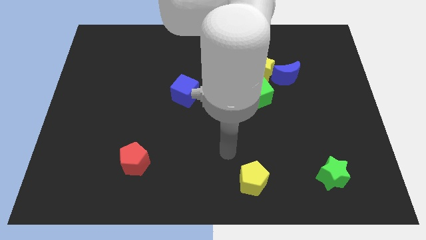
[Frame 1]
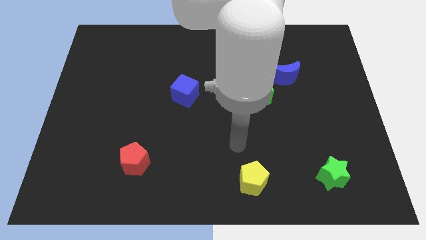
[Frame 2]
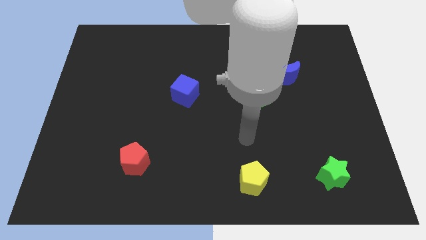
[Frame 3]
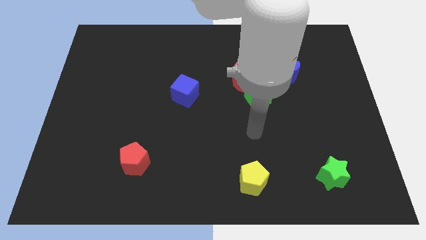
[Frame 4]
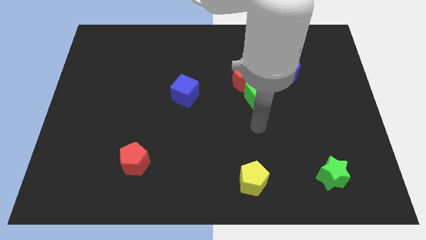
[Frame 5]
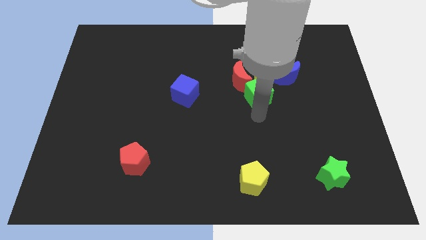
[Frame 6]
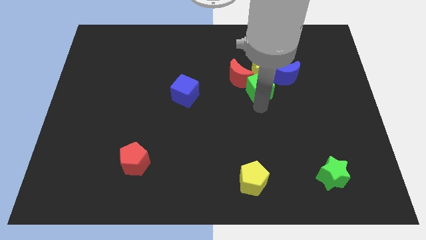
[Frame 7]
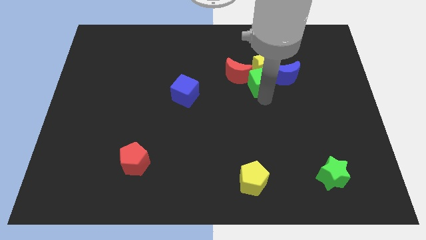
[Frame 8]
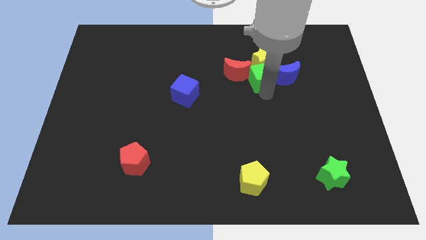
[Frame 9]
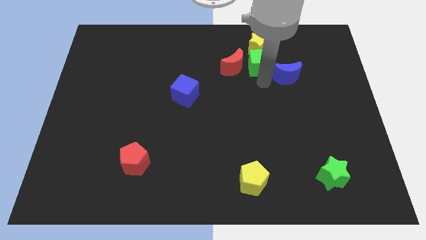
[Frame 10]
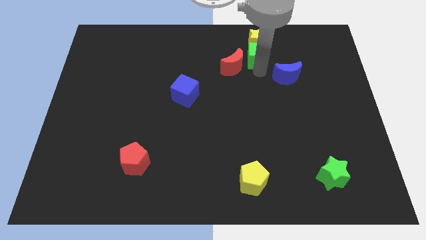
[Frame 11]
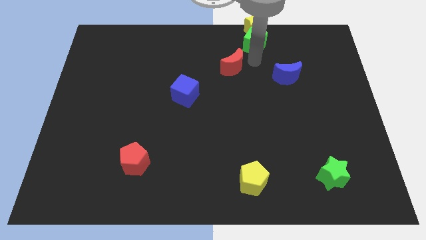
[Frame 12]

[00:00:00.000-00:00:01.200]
move the red moon away from the yellow star and green cube

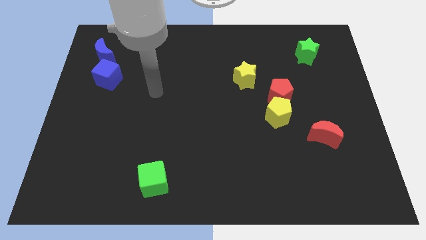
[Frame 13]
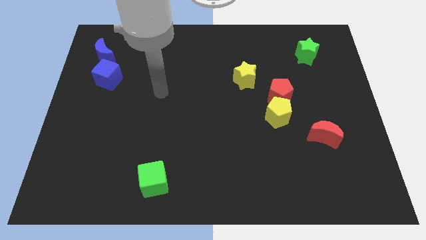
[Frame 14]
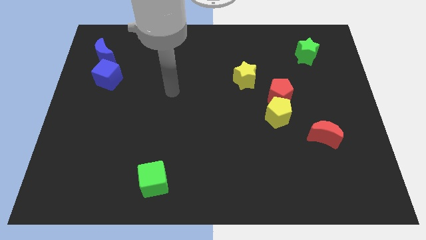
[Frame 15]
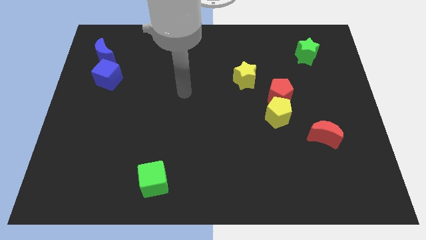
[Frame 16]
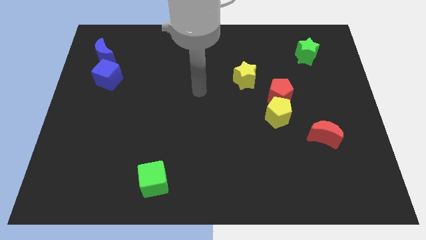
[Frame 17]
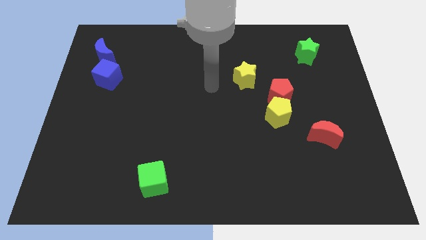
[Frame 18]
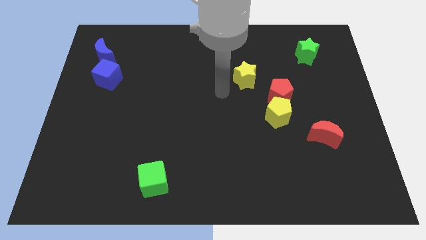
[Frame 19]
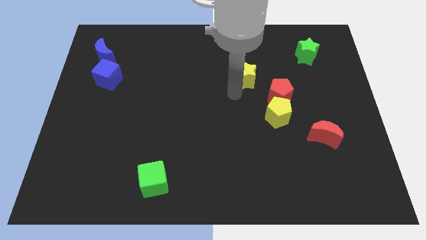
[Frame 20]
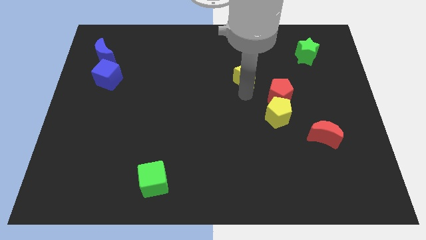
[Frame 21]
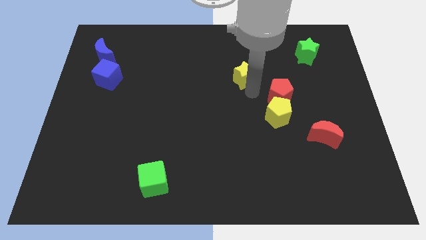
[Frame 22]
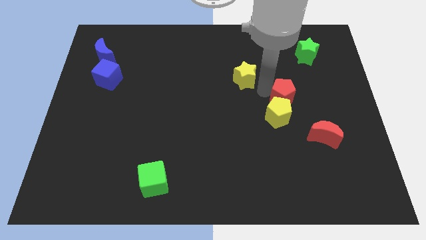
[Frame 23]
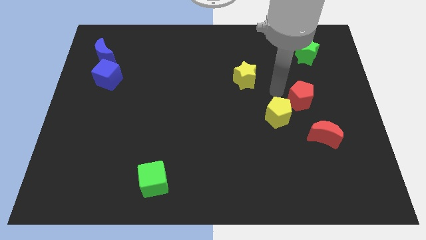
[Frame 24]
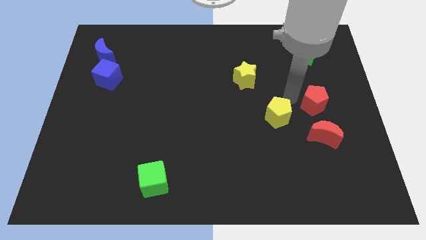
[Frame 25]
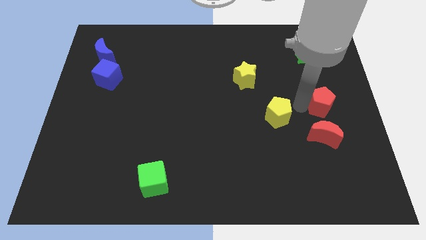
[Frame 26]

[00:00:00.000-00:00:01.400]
move the yellow pentagon away from the red pentagon

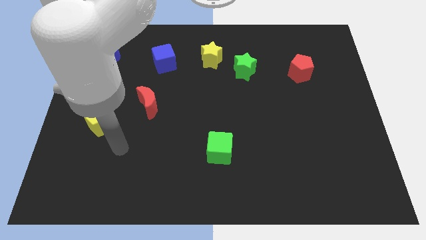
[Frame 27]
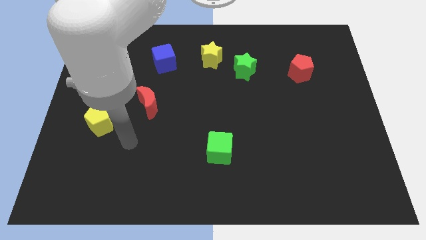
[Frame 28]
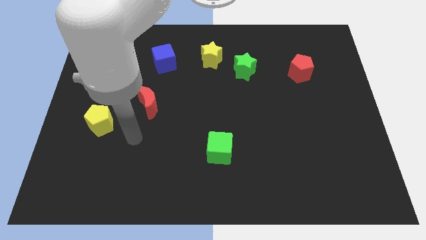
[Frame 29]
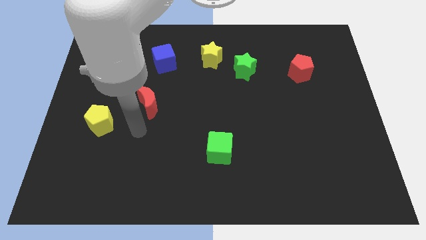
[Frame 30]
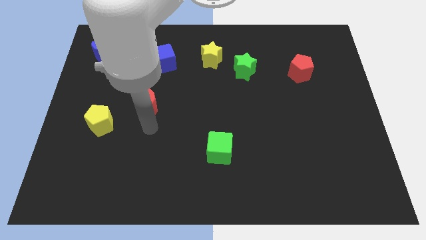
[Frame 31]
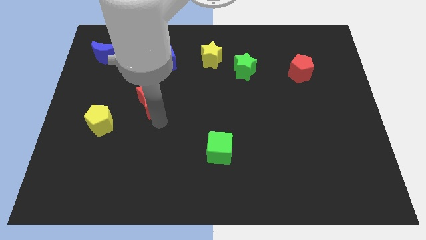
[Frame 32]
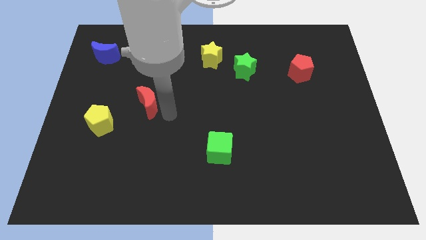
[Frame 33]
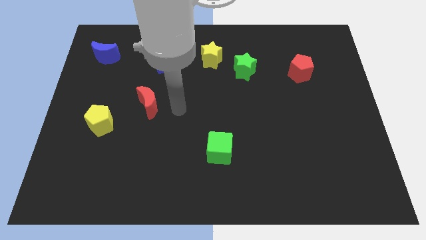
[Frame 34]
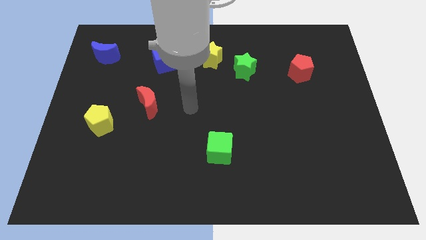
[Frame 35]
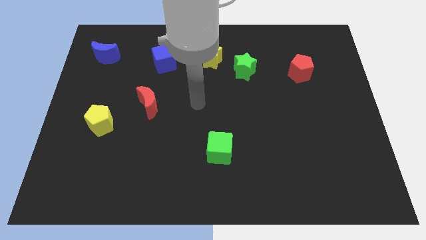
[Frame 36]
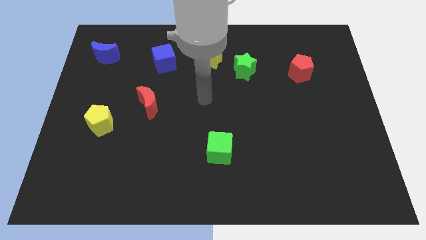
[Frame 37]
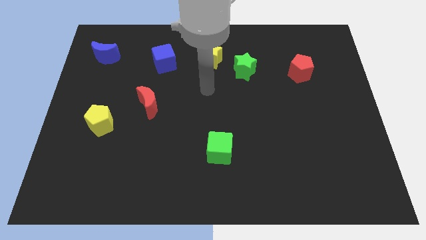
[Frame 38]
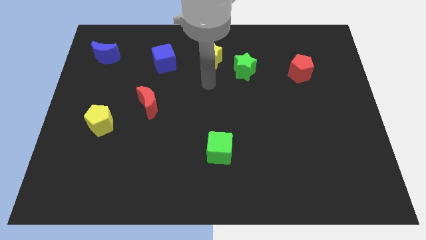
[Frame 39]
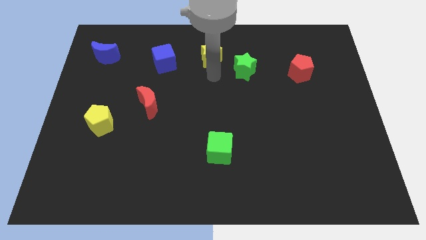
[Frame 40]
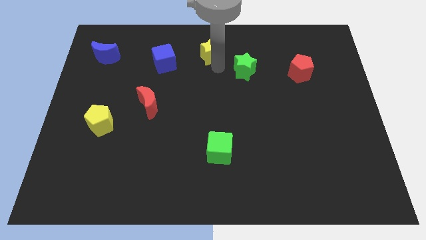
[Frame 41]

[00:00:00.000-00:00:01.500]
move the green star away from the yellow star

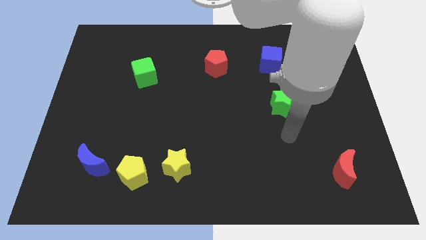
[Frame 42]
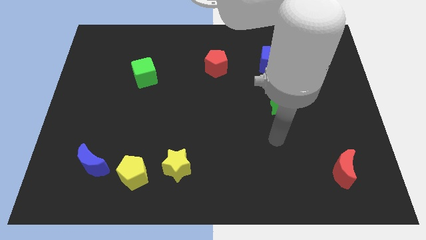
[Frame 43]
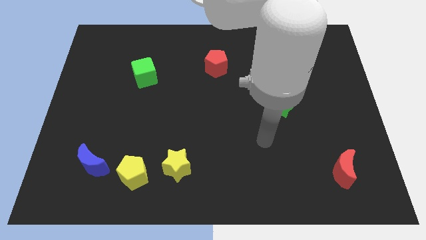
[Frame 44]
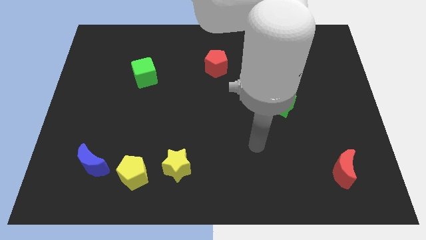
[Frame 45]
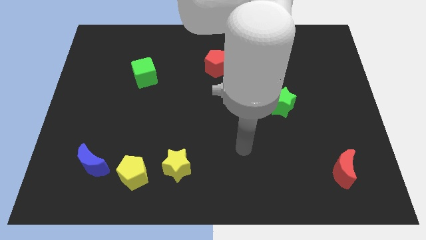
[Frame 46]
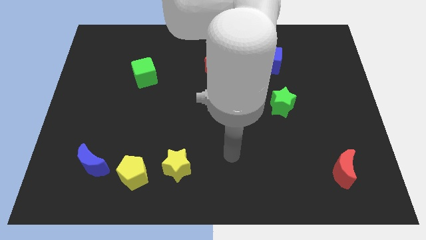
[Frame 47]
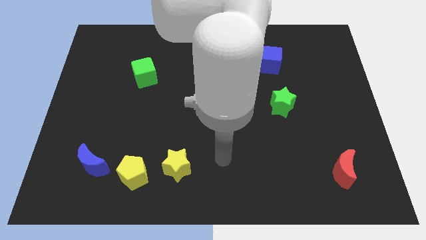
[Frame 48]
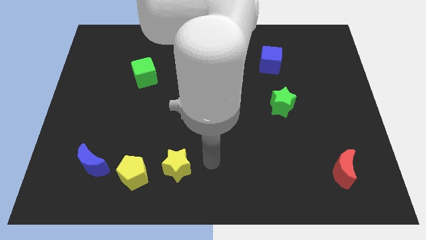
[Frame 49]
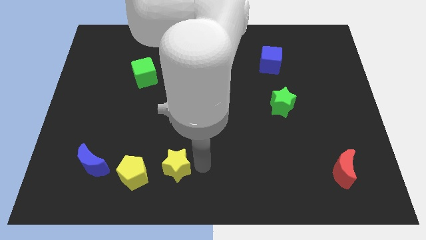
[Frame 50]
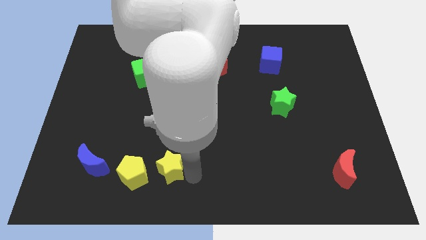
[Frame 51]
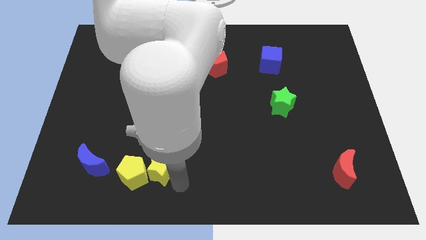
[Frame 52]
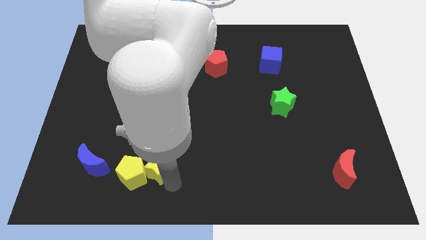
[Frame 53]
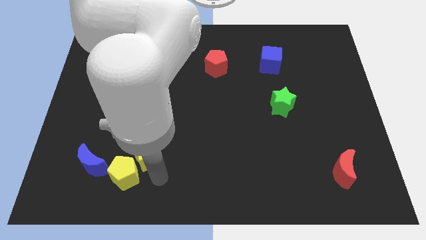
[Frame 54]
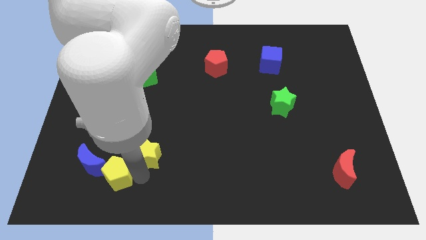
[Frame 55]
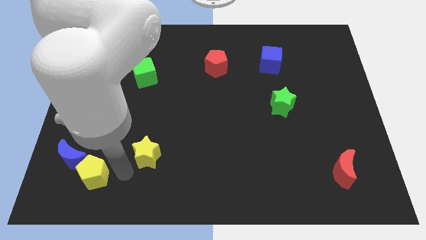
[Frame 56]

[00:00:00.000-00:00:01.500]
move the yellow star away from the yellow pentagon

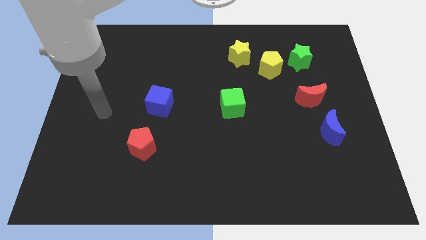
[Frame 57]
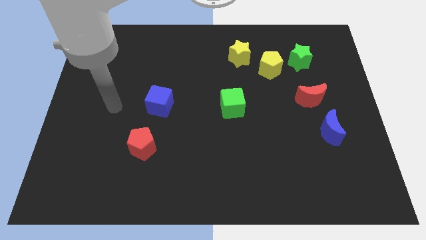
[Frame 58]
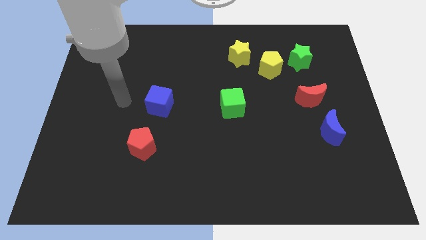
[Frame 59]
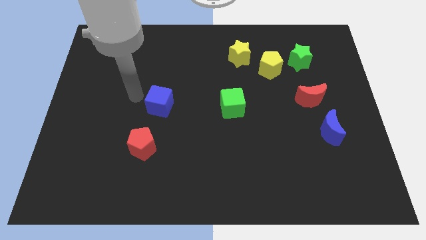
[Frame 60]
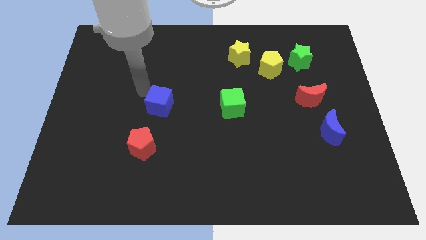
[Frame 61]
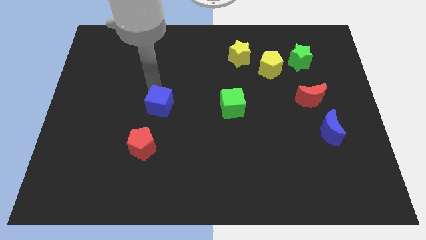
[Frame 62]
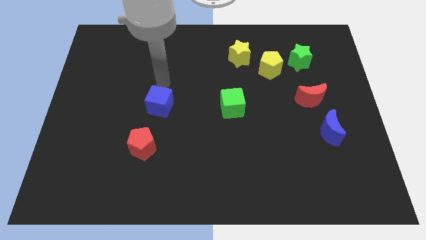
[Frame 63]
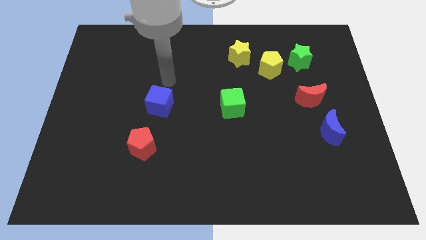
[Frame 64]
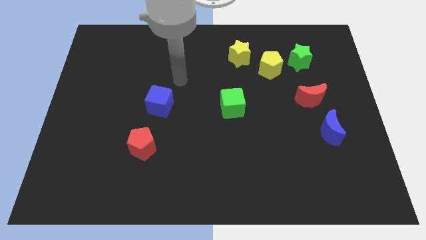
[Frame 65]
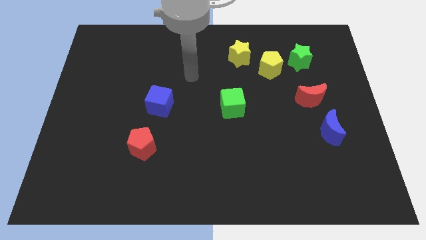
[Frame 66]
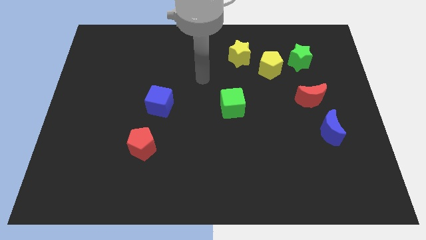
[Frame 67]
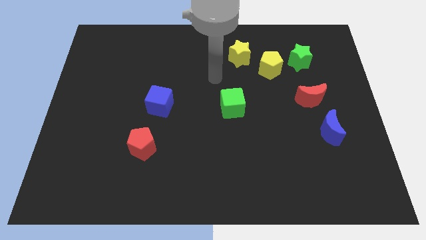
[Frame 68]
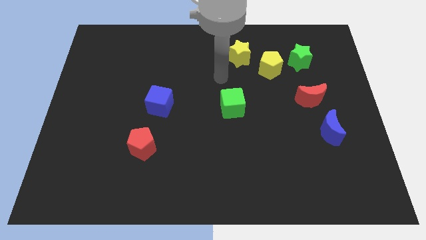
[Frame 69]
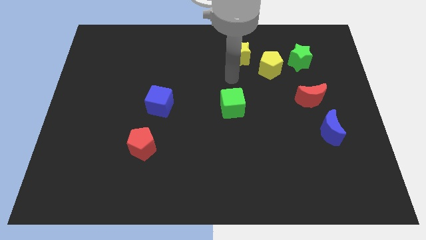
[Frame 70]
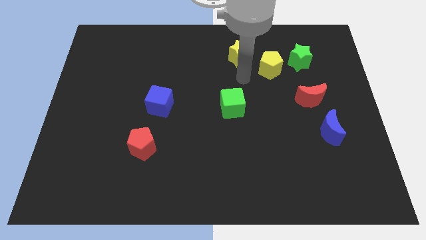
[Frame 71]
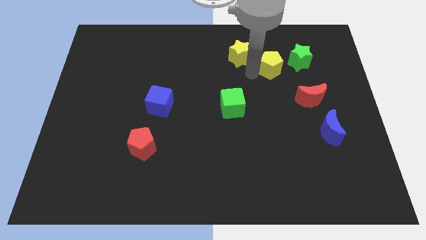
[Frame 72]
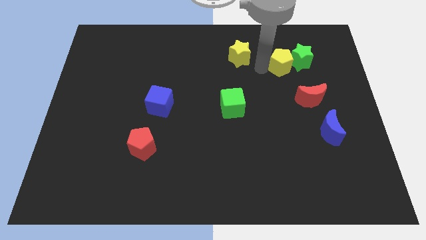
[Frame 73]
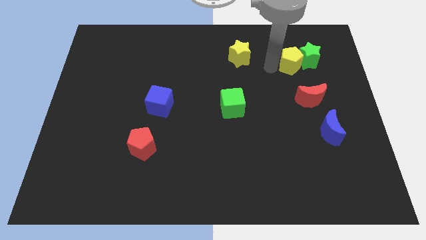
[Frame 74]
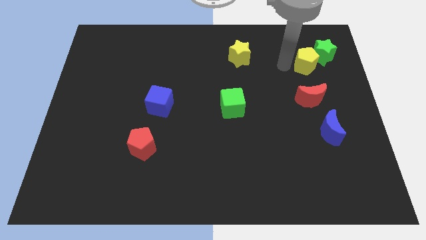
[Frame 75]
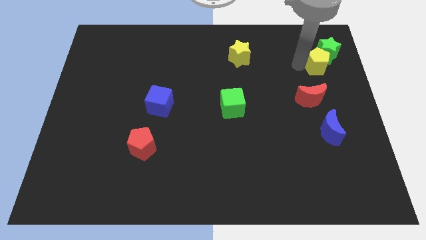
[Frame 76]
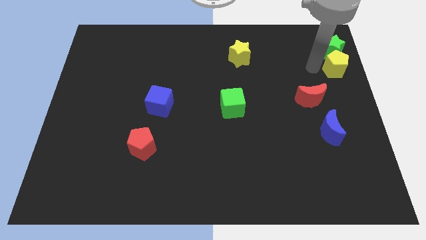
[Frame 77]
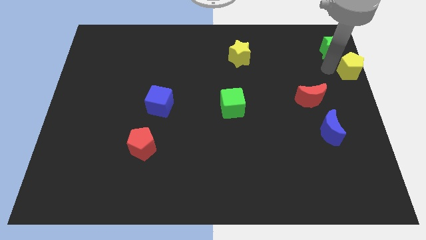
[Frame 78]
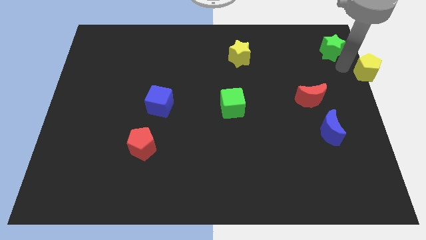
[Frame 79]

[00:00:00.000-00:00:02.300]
move the green star away from the yellow pentagon

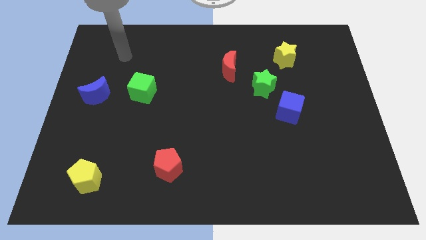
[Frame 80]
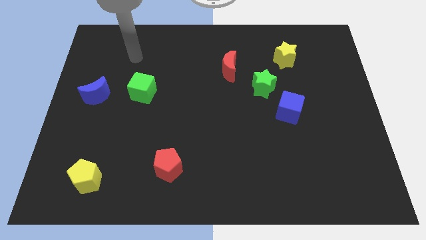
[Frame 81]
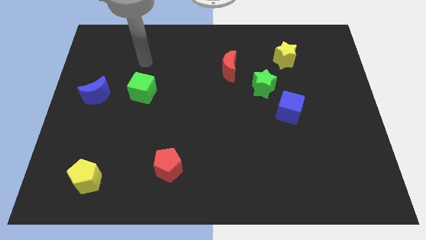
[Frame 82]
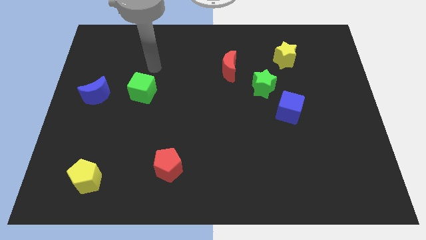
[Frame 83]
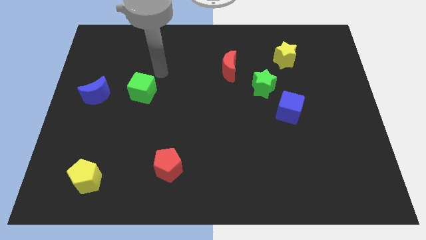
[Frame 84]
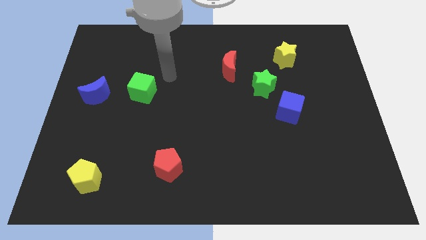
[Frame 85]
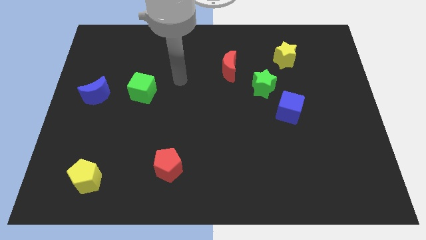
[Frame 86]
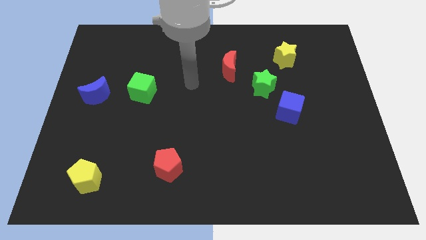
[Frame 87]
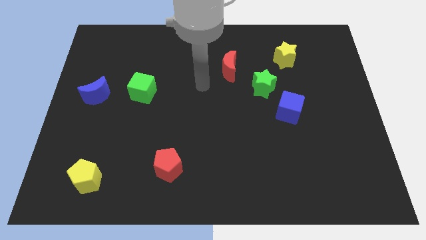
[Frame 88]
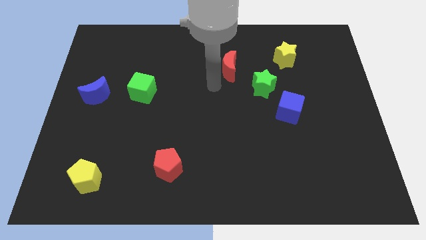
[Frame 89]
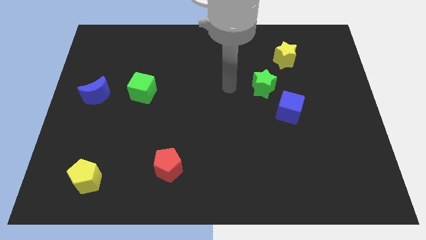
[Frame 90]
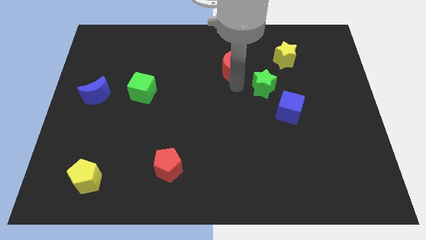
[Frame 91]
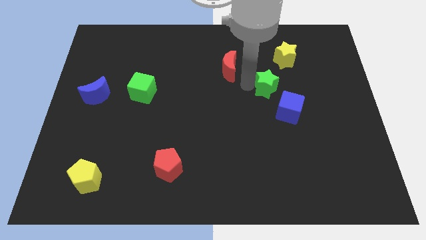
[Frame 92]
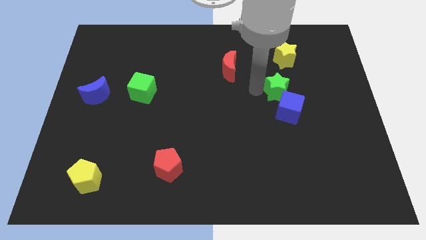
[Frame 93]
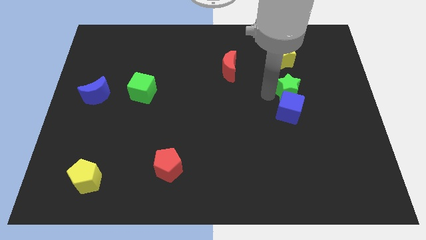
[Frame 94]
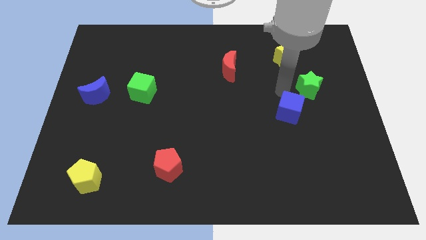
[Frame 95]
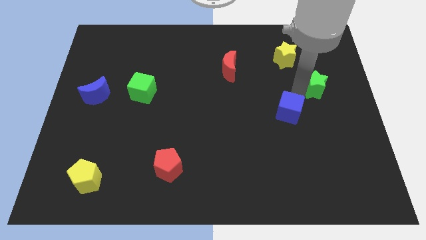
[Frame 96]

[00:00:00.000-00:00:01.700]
move the blue cube away from the green star
